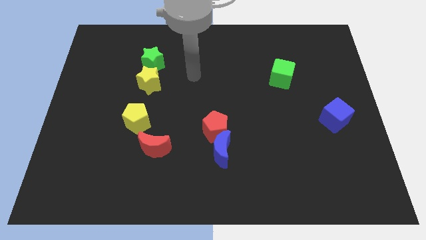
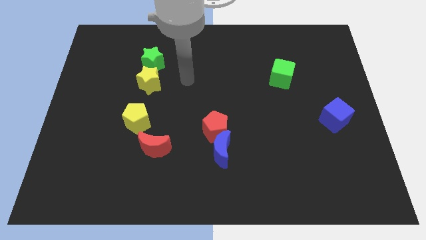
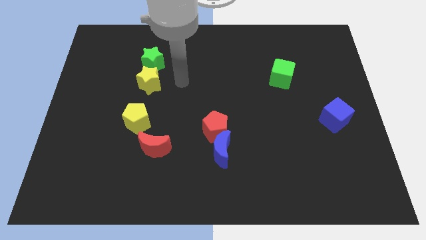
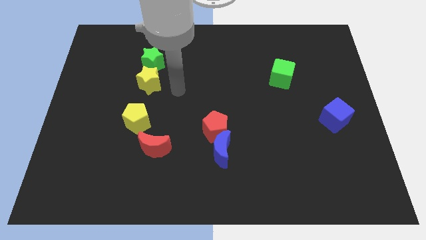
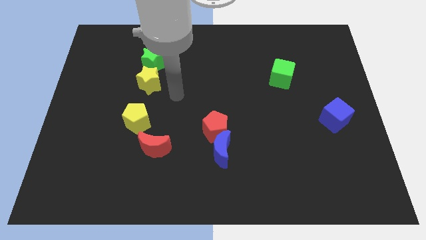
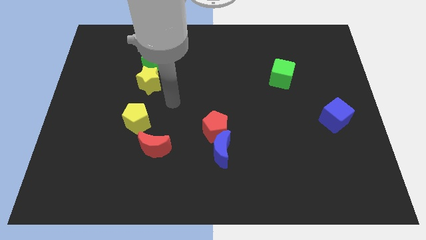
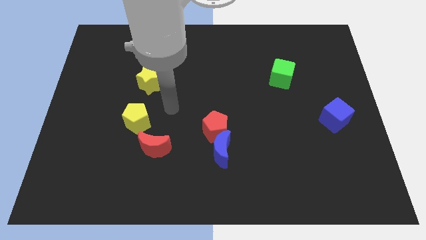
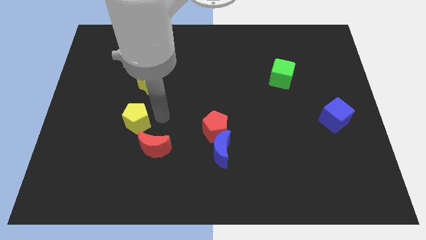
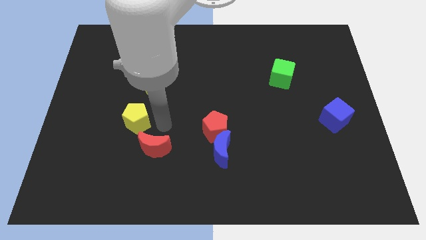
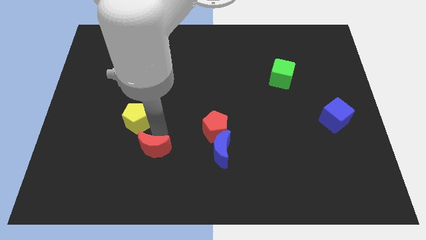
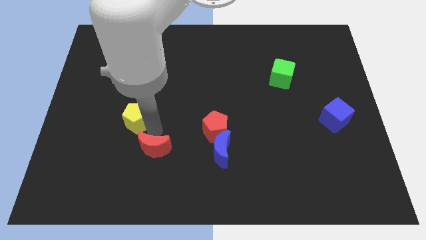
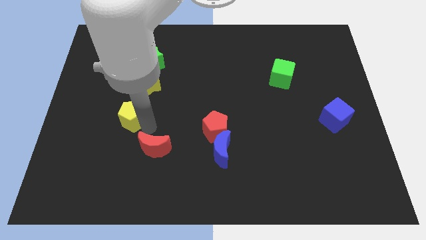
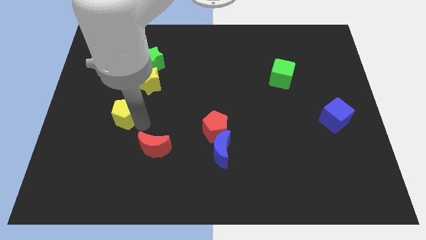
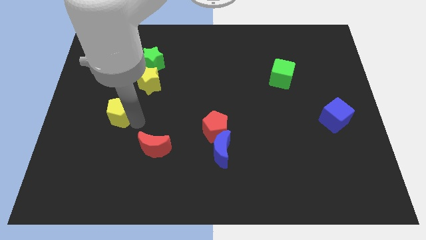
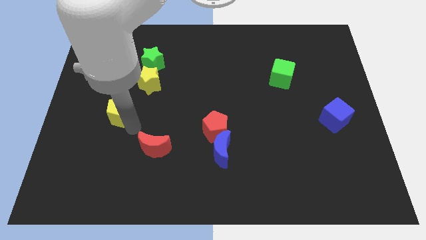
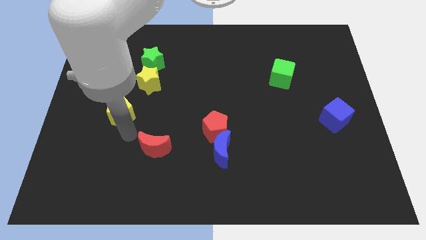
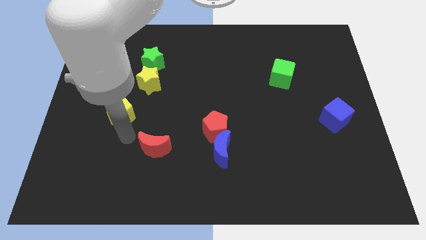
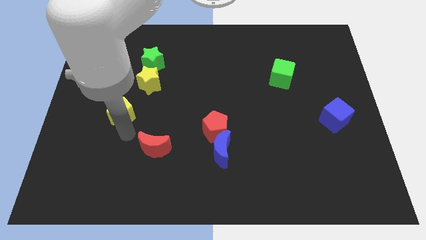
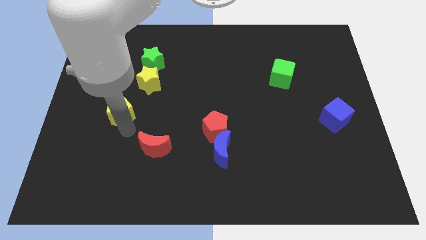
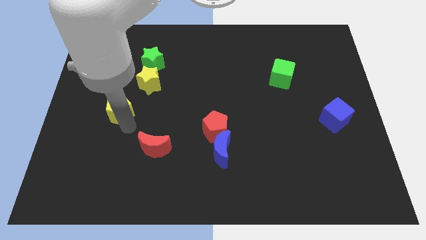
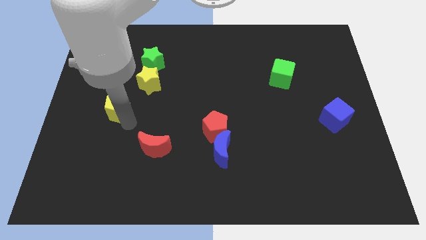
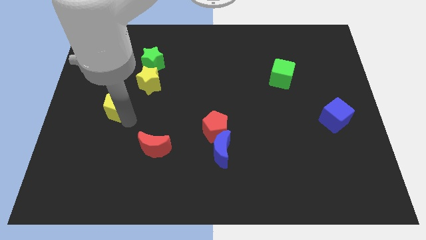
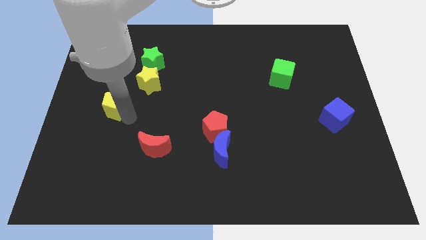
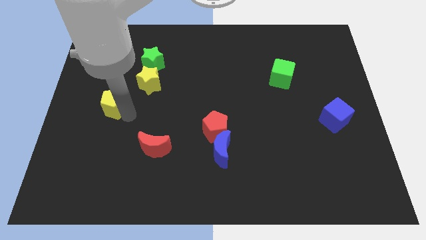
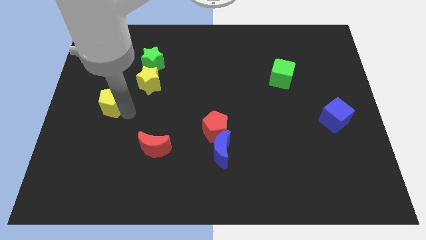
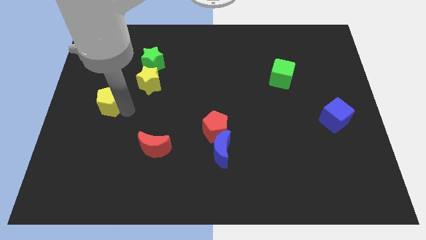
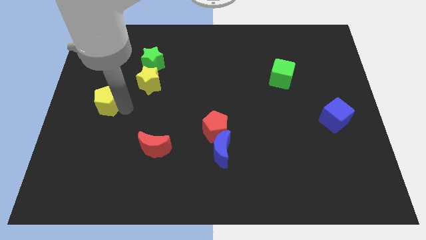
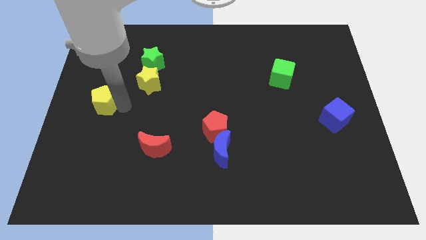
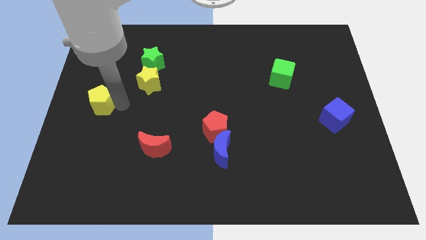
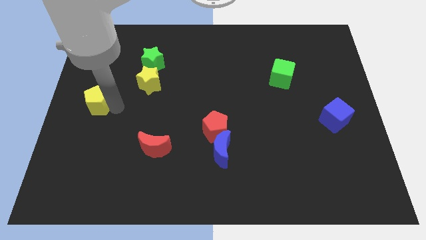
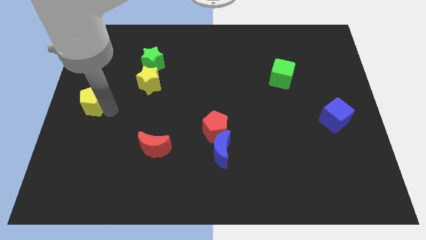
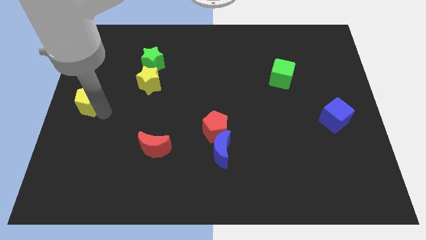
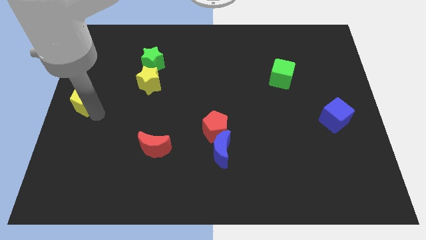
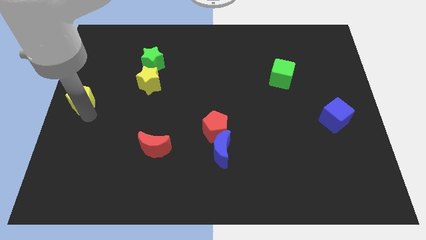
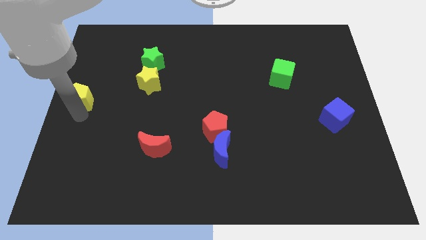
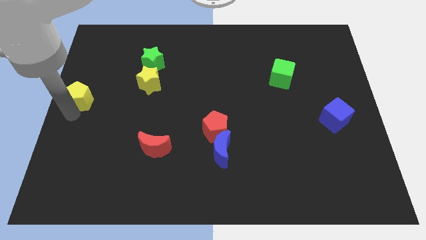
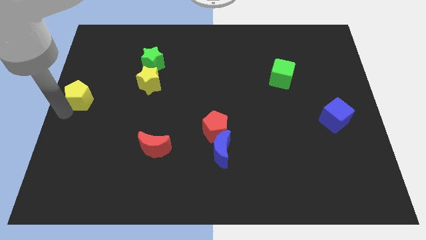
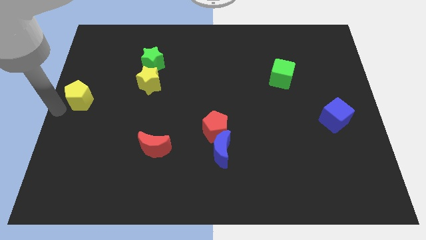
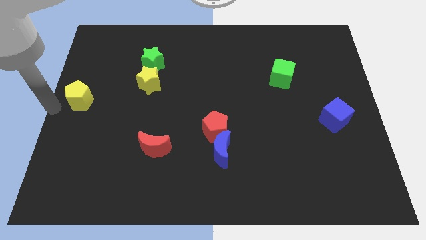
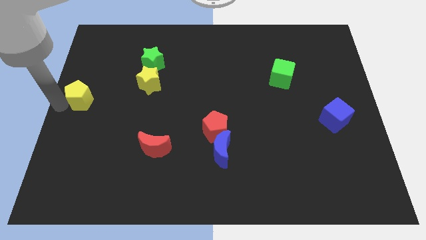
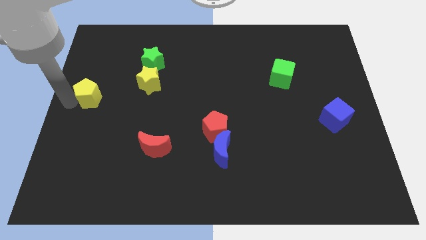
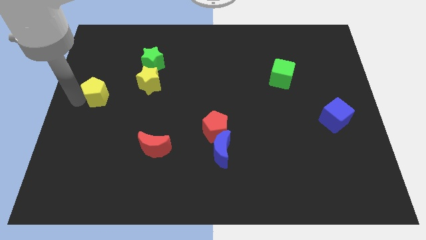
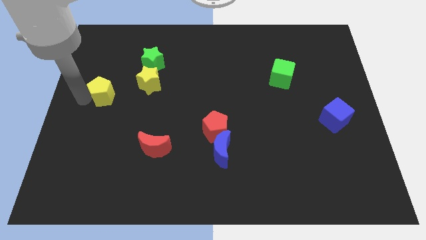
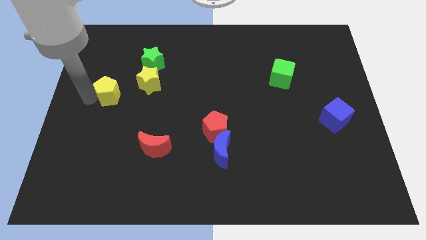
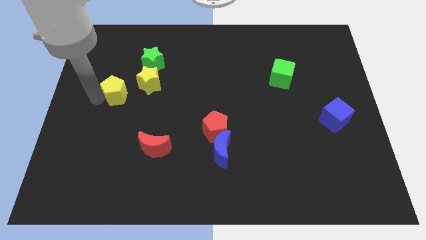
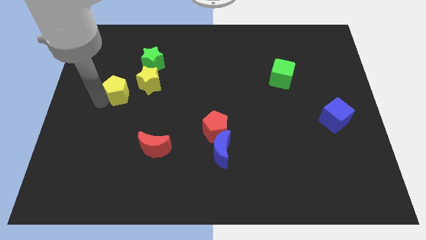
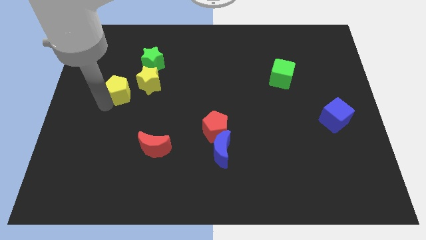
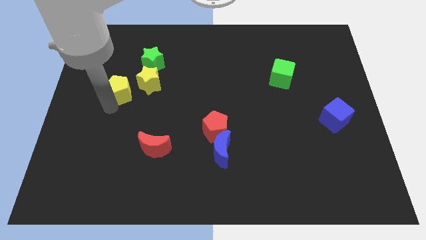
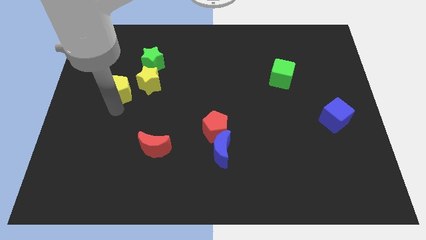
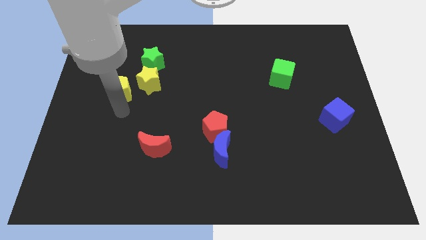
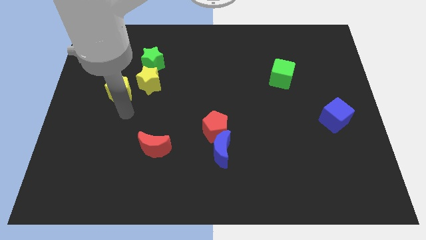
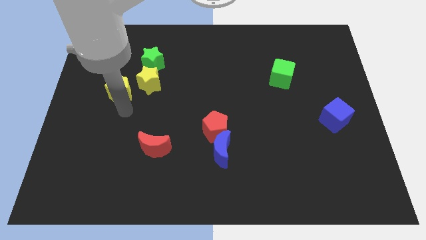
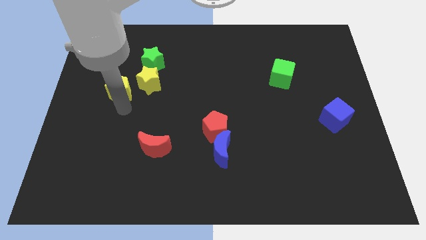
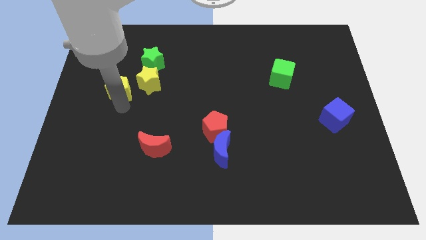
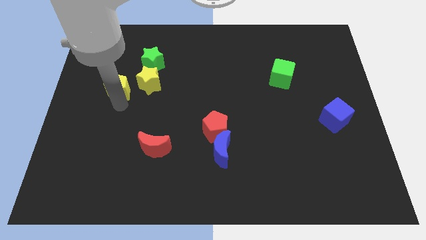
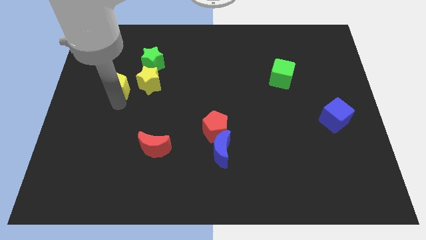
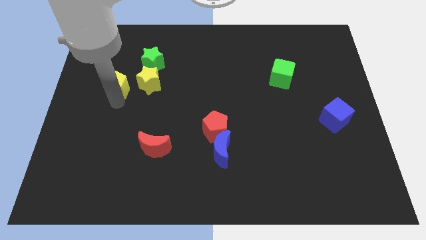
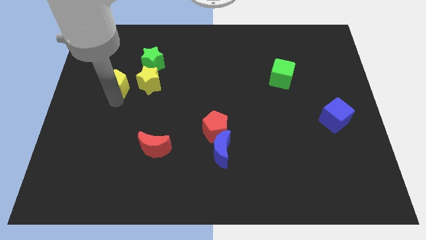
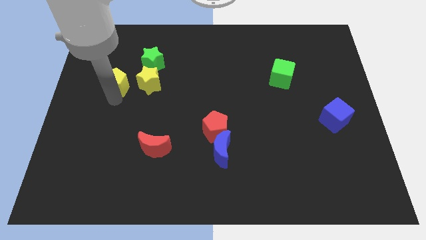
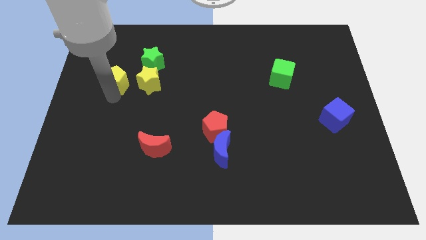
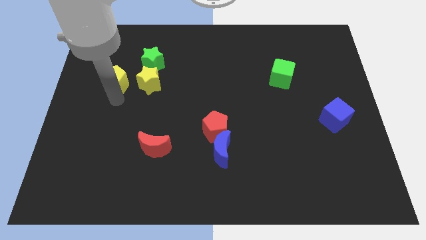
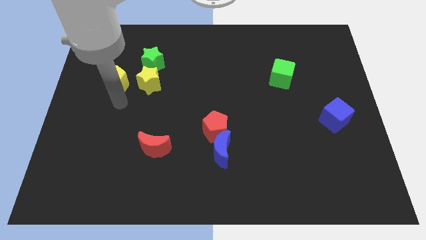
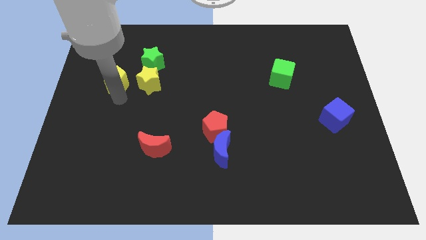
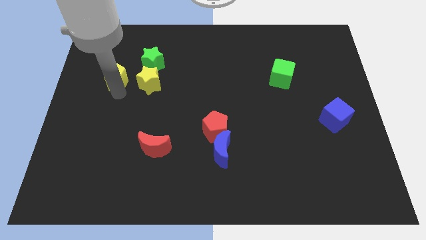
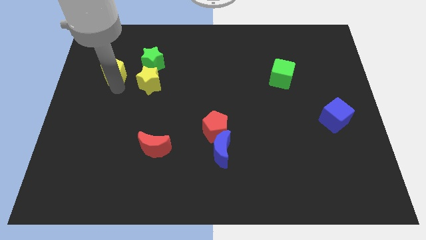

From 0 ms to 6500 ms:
push the yellow pentagon to the left side of the green star

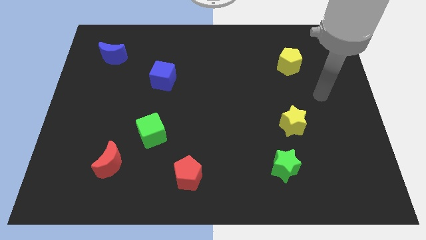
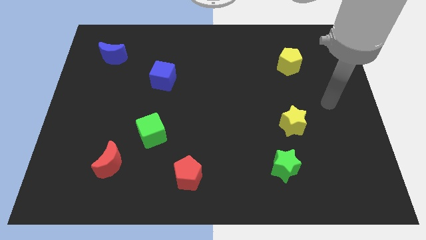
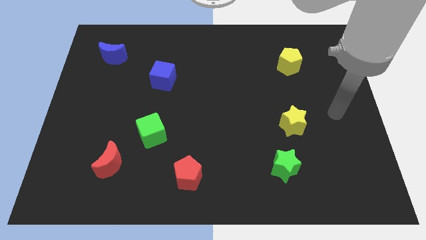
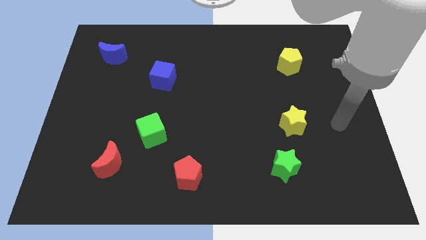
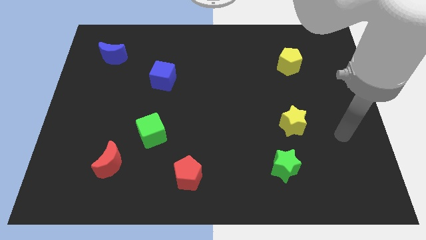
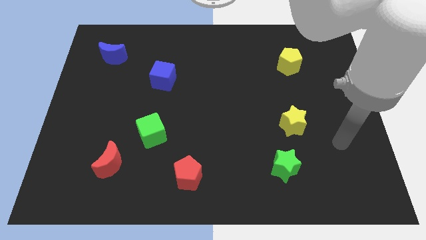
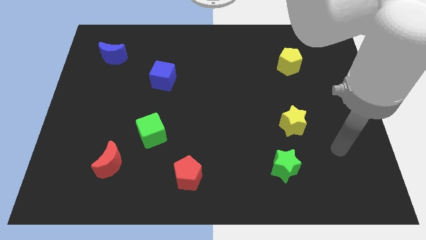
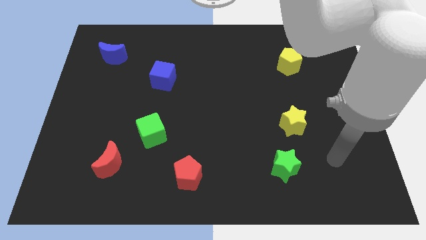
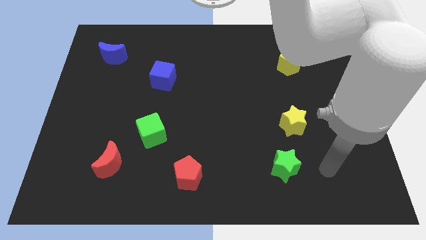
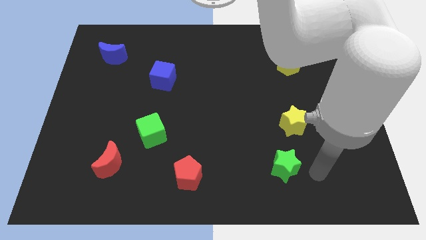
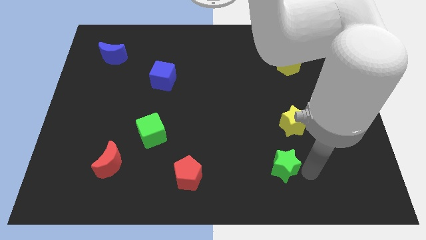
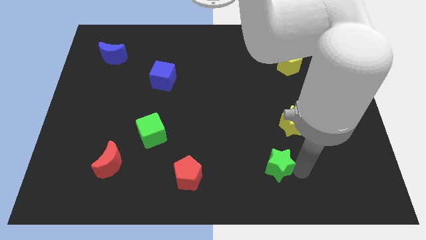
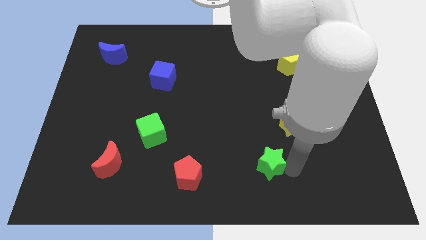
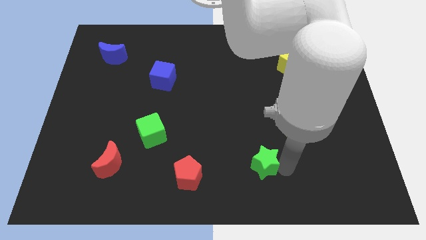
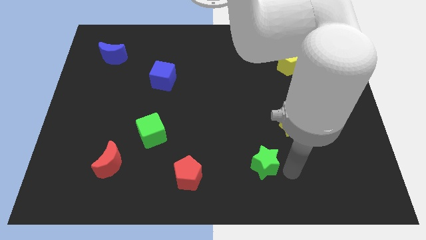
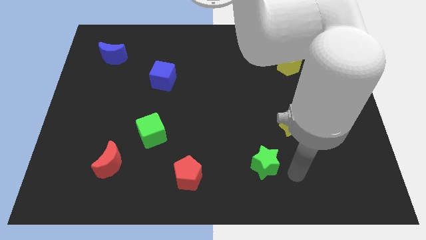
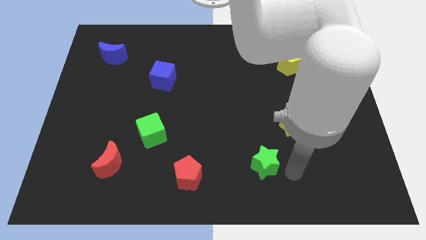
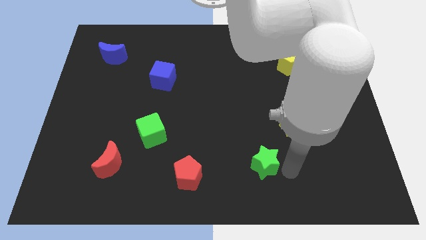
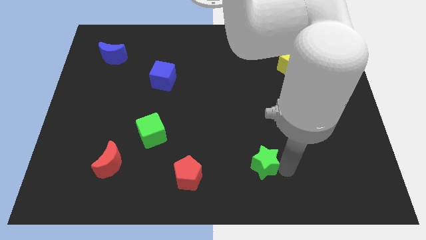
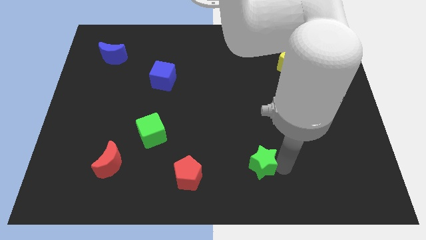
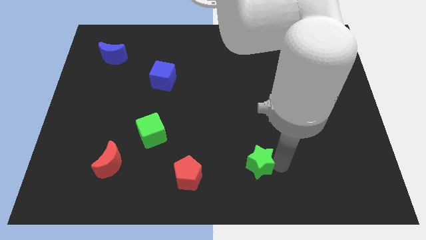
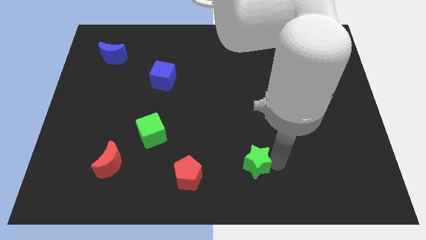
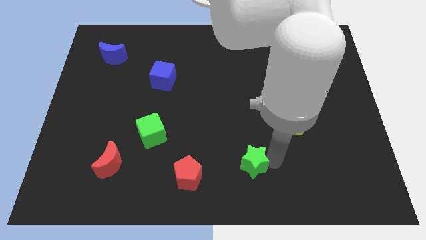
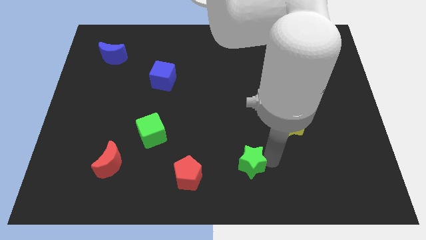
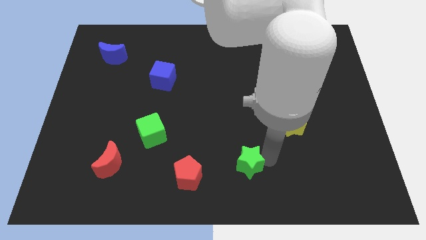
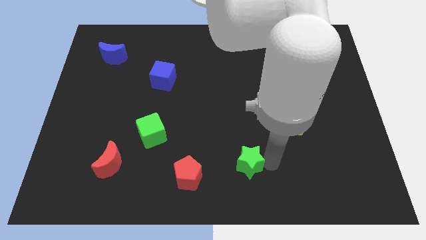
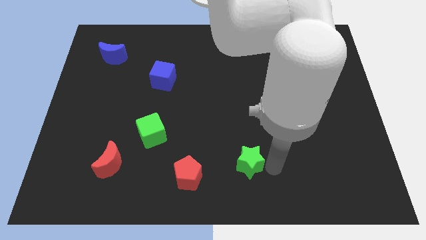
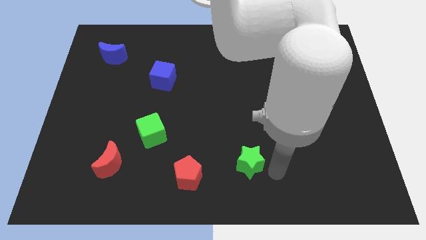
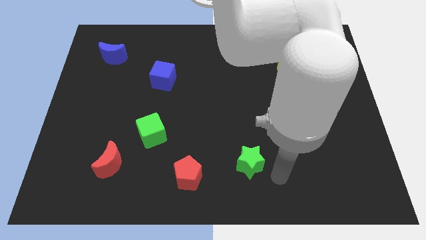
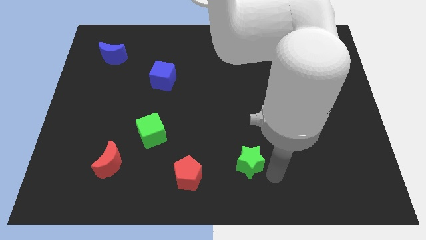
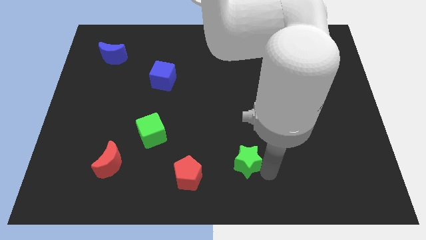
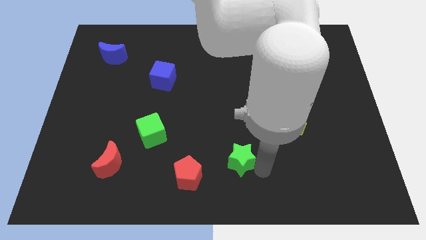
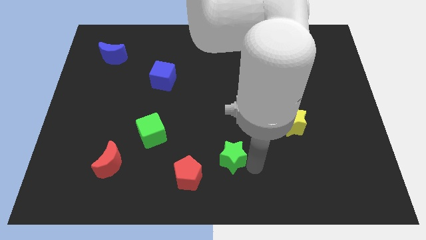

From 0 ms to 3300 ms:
put the green star to the top right of the red pentagon
